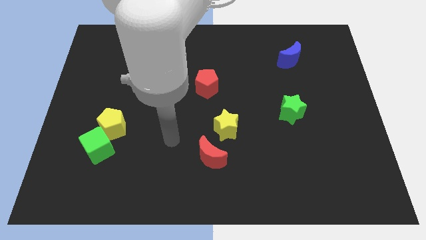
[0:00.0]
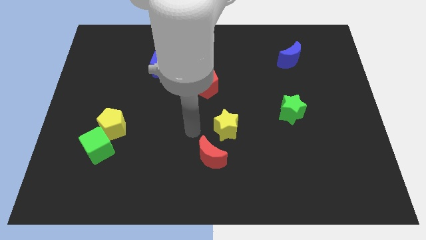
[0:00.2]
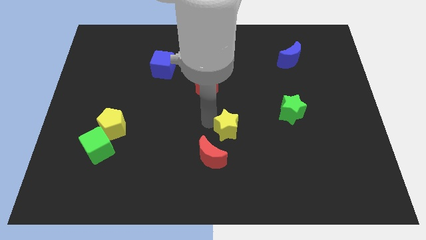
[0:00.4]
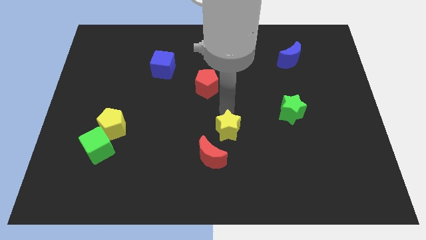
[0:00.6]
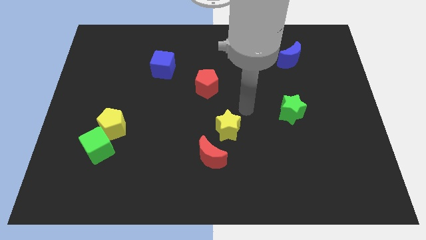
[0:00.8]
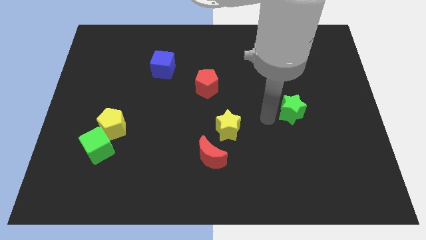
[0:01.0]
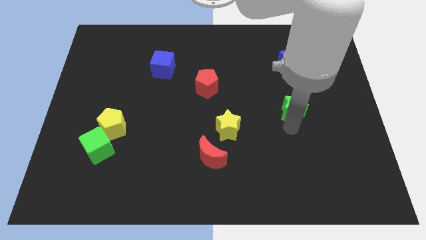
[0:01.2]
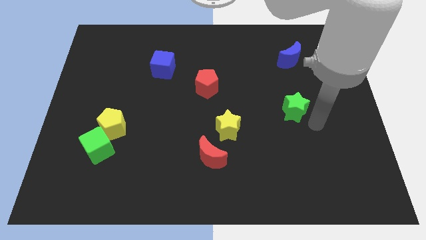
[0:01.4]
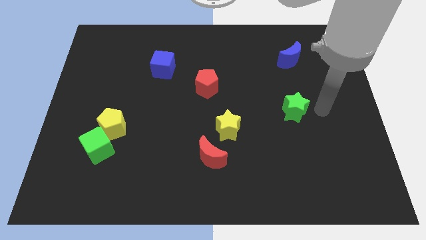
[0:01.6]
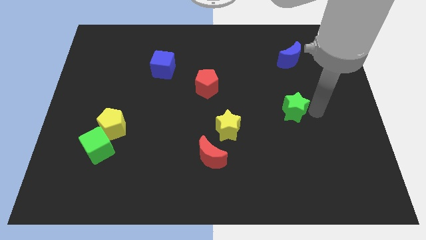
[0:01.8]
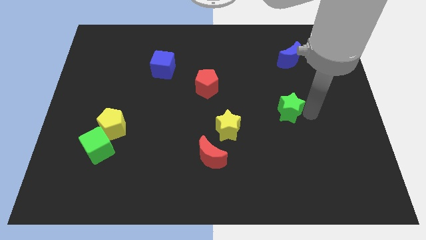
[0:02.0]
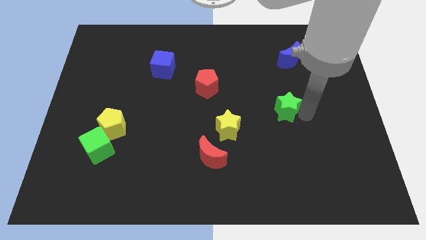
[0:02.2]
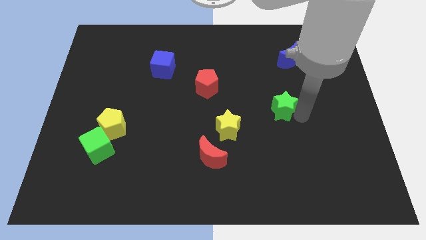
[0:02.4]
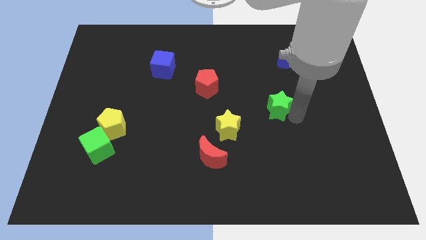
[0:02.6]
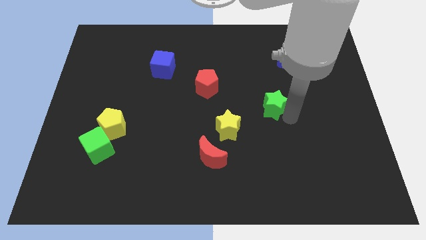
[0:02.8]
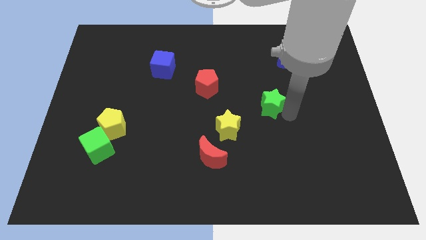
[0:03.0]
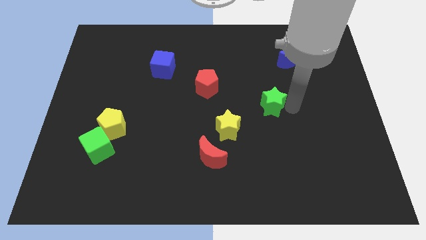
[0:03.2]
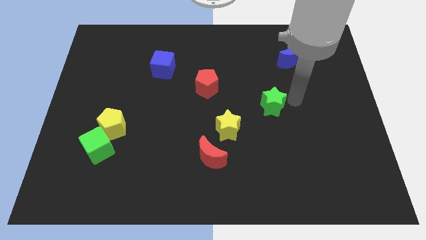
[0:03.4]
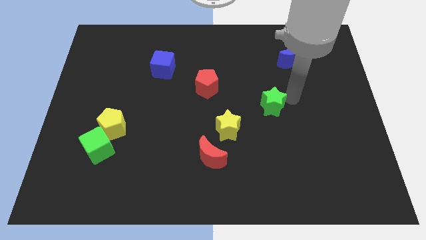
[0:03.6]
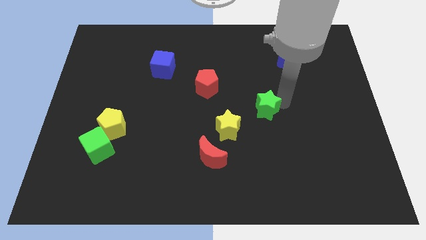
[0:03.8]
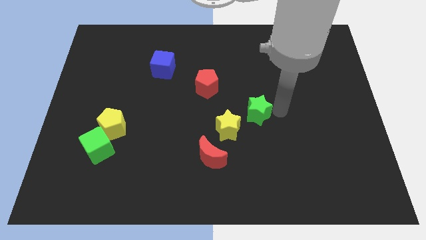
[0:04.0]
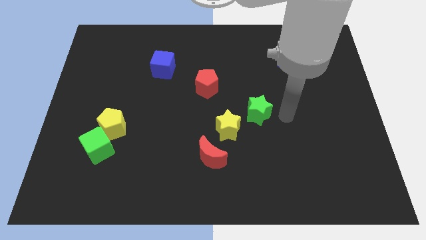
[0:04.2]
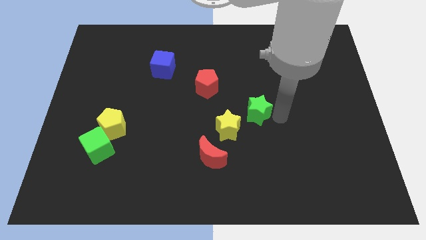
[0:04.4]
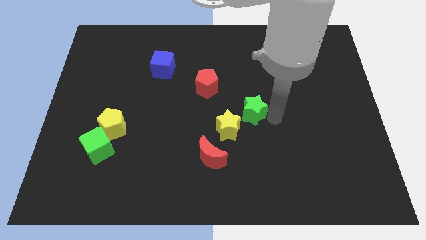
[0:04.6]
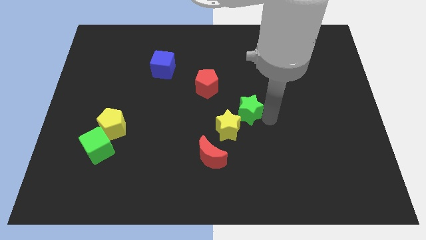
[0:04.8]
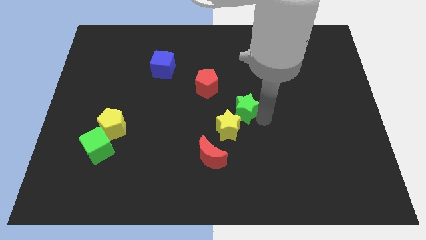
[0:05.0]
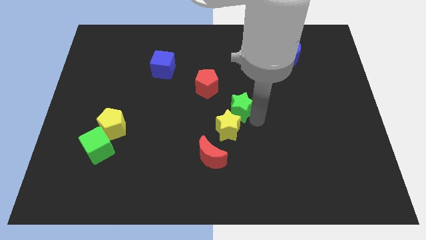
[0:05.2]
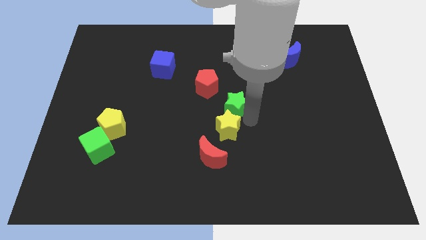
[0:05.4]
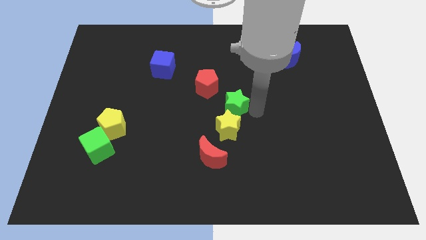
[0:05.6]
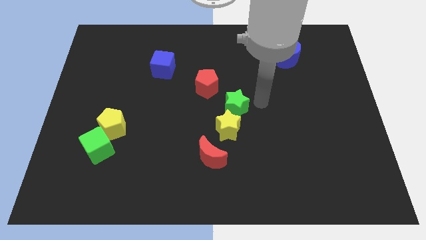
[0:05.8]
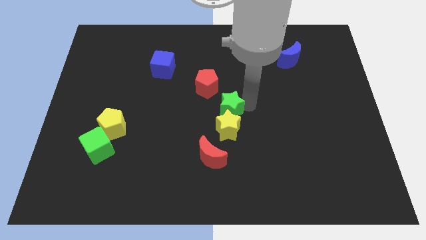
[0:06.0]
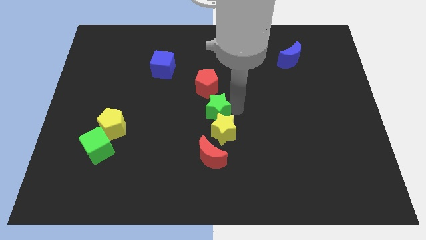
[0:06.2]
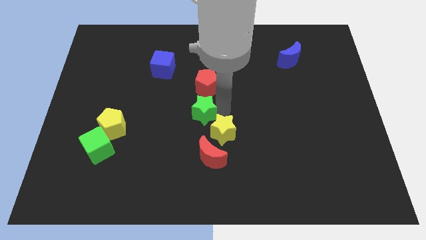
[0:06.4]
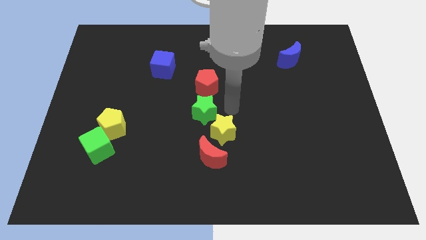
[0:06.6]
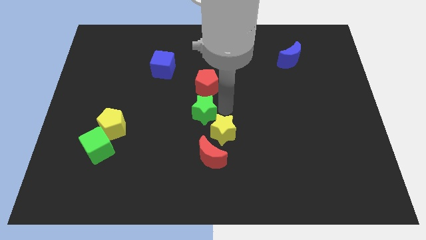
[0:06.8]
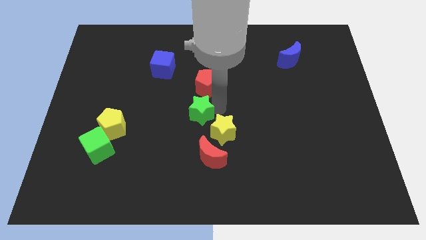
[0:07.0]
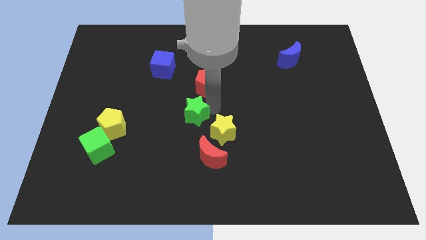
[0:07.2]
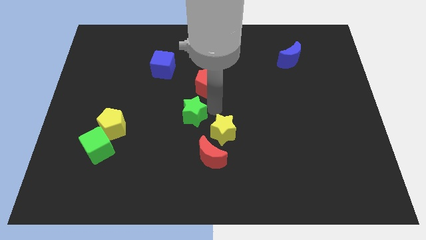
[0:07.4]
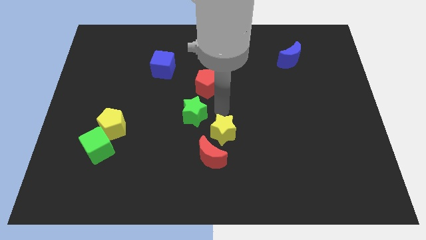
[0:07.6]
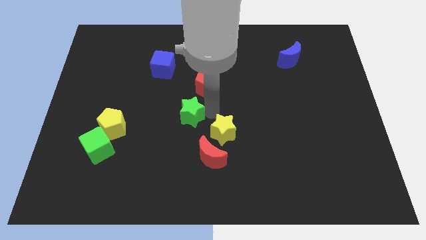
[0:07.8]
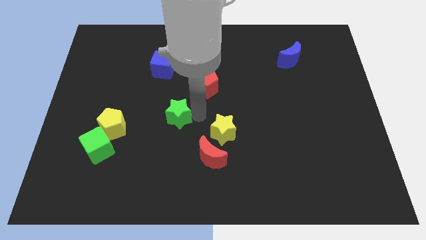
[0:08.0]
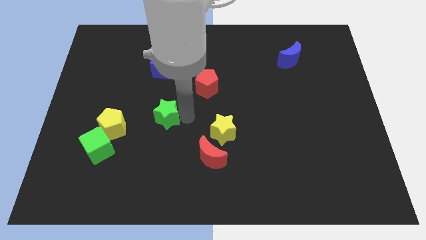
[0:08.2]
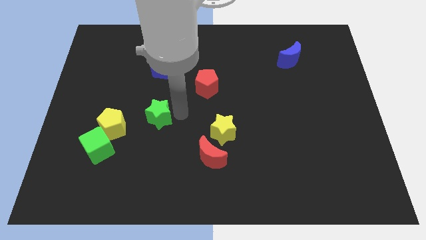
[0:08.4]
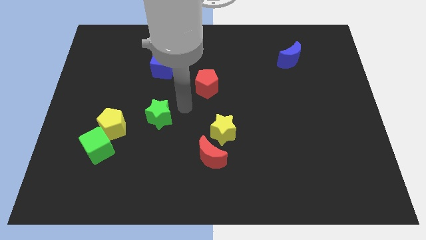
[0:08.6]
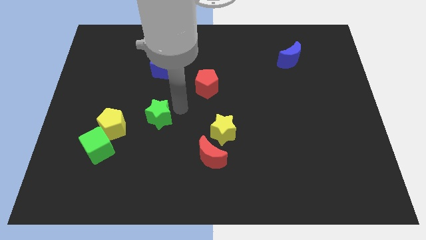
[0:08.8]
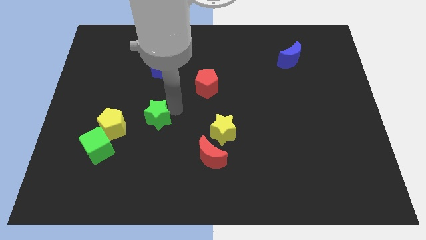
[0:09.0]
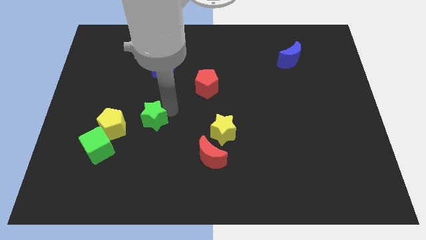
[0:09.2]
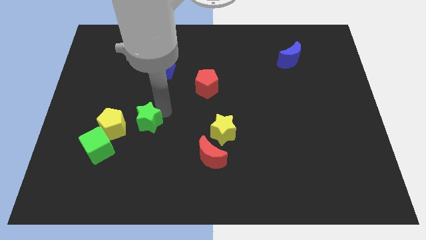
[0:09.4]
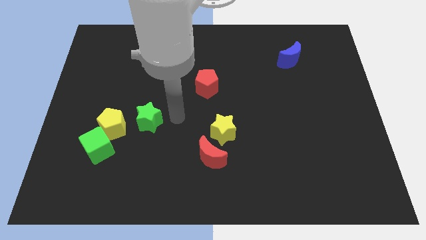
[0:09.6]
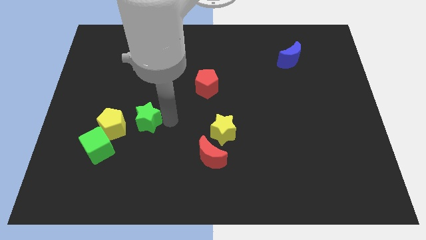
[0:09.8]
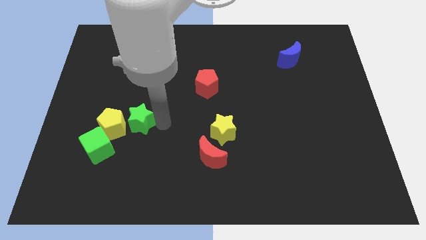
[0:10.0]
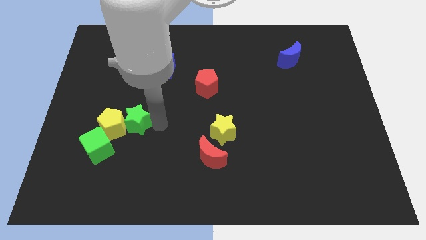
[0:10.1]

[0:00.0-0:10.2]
put the green star close to the yellow pentagon
